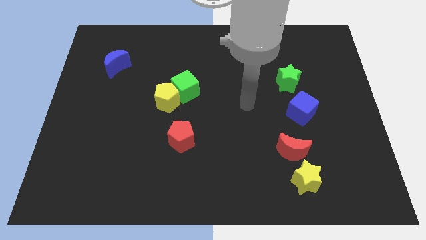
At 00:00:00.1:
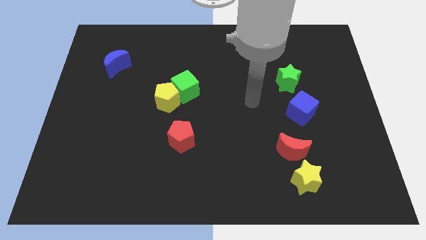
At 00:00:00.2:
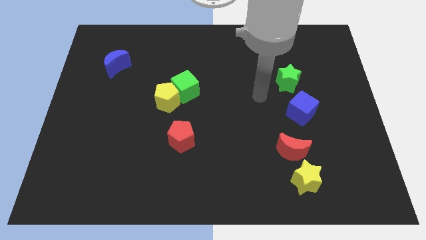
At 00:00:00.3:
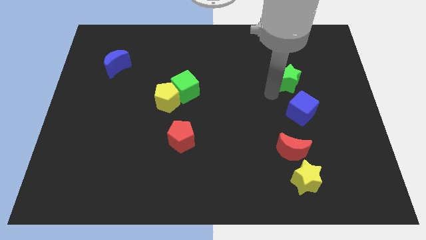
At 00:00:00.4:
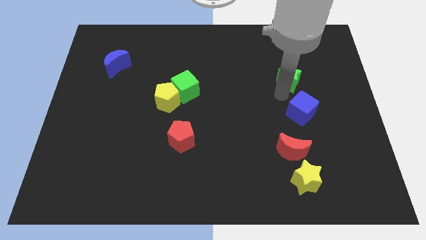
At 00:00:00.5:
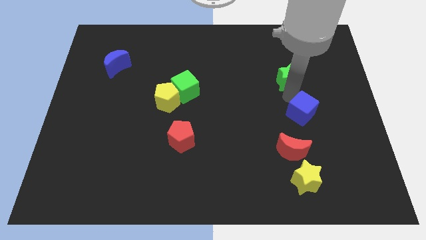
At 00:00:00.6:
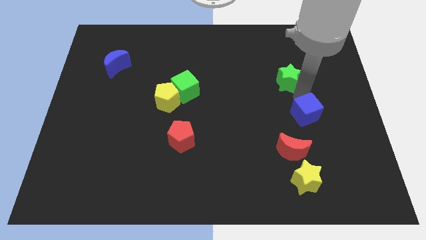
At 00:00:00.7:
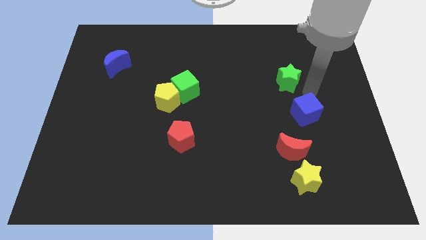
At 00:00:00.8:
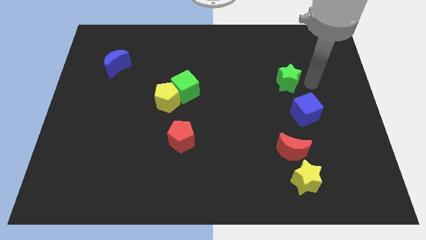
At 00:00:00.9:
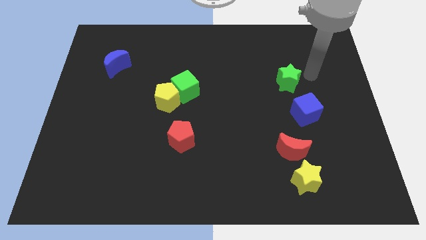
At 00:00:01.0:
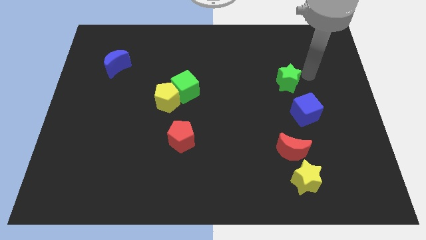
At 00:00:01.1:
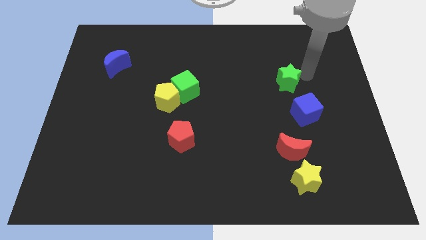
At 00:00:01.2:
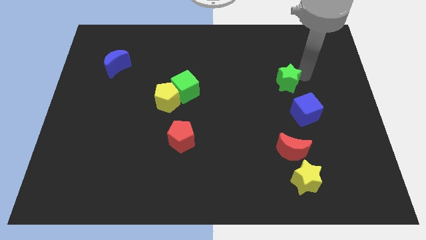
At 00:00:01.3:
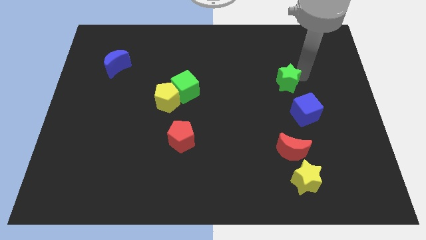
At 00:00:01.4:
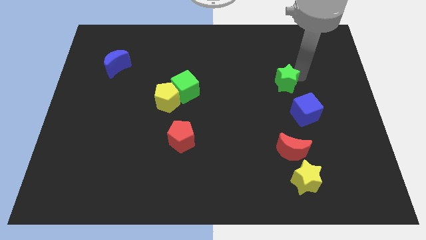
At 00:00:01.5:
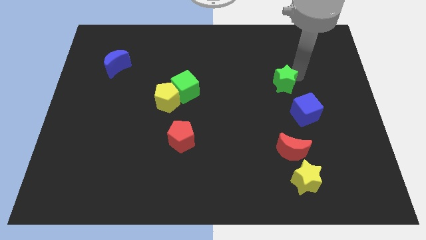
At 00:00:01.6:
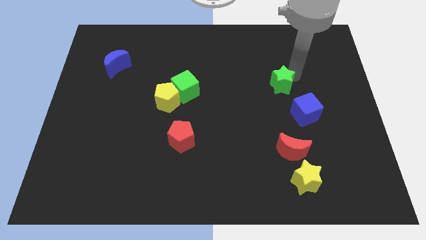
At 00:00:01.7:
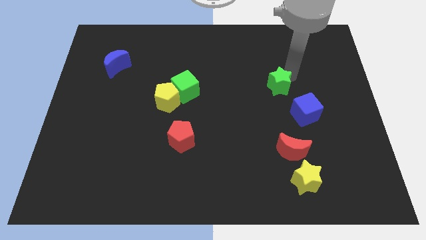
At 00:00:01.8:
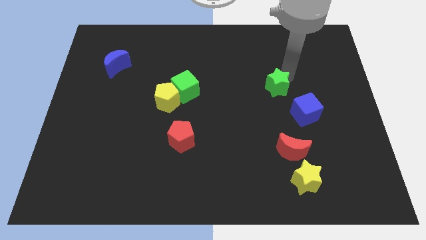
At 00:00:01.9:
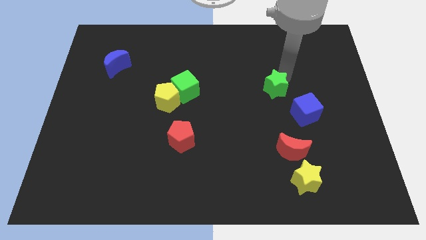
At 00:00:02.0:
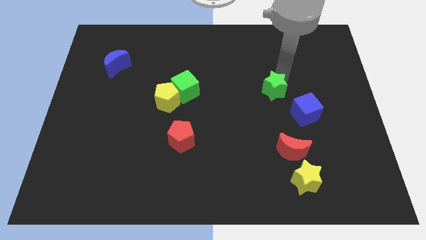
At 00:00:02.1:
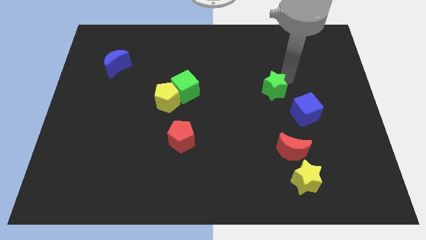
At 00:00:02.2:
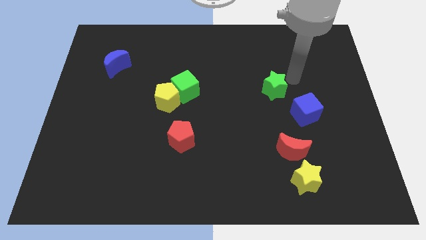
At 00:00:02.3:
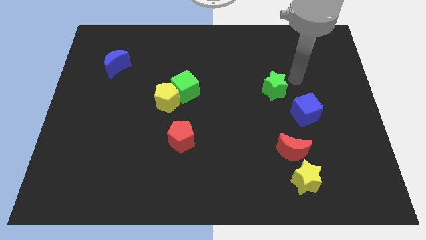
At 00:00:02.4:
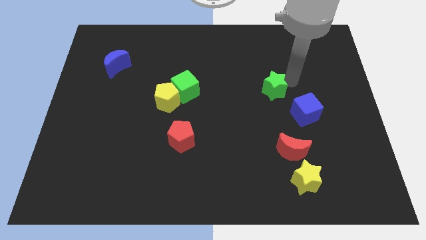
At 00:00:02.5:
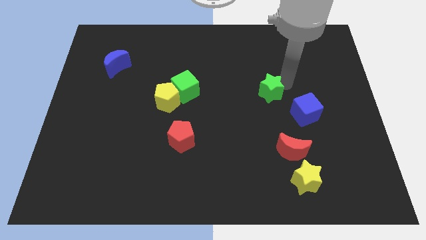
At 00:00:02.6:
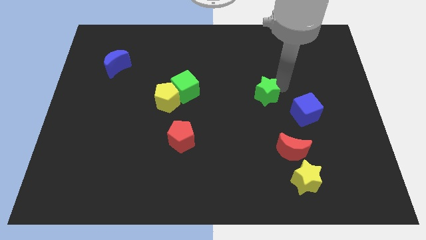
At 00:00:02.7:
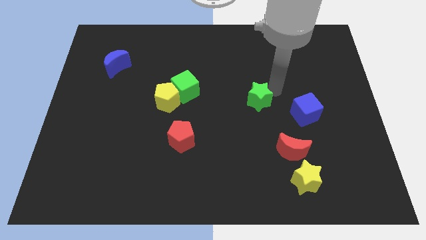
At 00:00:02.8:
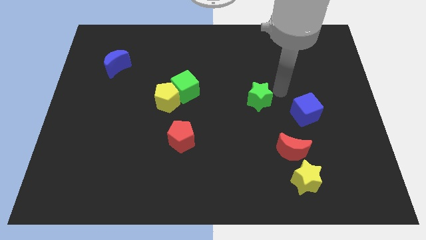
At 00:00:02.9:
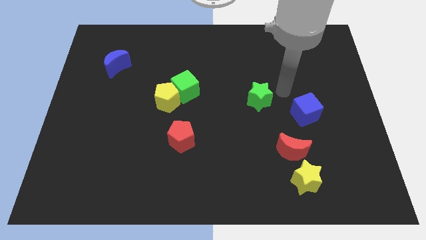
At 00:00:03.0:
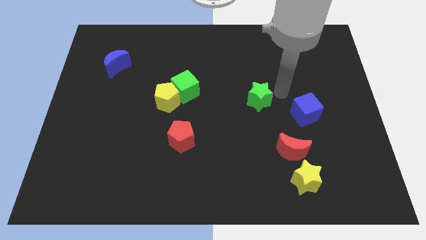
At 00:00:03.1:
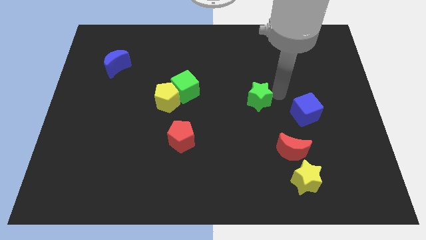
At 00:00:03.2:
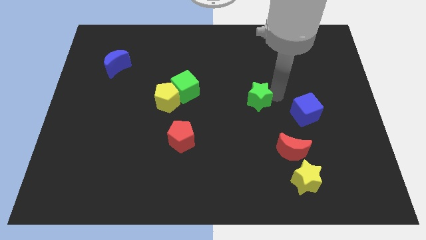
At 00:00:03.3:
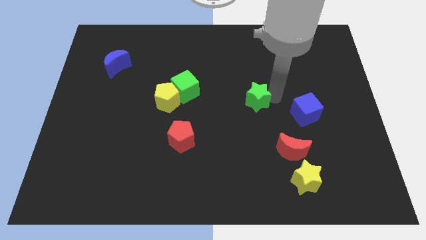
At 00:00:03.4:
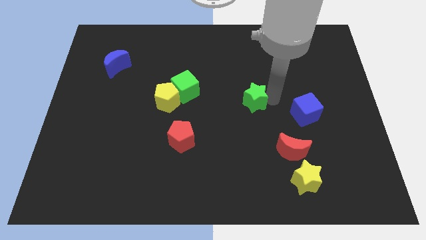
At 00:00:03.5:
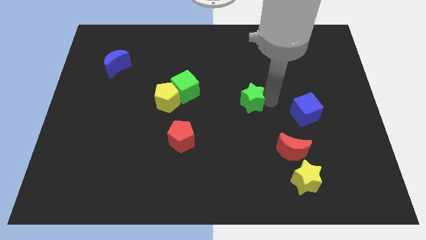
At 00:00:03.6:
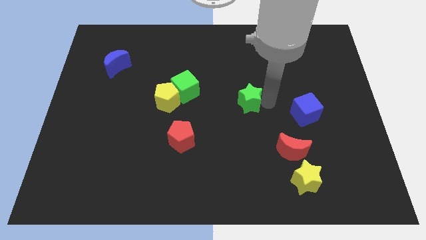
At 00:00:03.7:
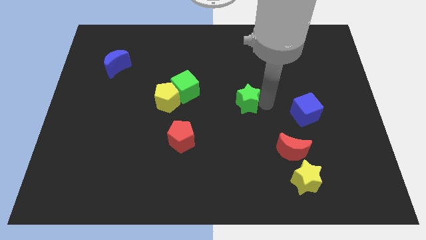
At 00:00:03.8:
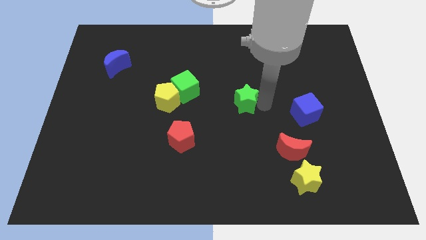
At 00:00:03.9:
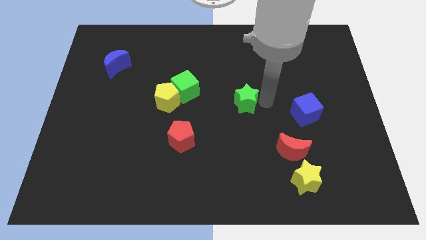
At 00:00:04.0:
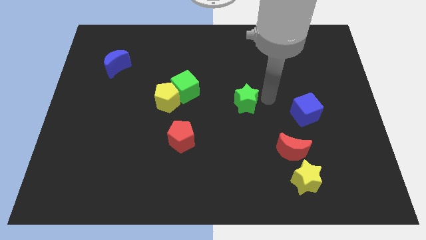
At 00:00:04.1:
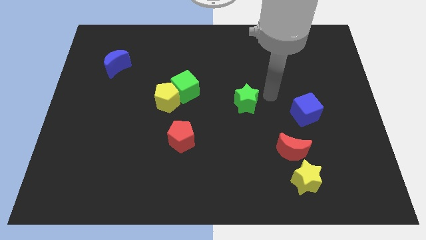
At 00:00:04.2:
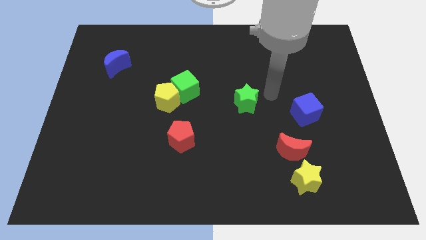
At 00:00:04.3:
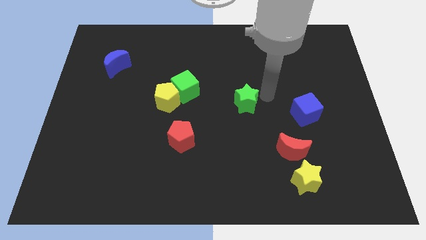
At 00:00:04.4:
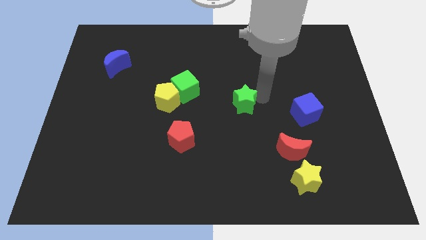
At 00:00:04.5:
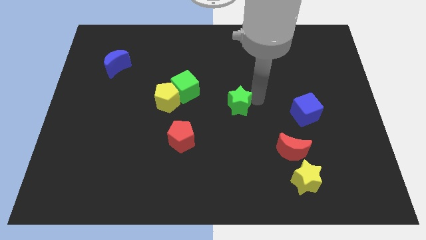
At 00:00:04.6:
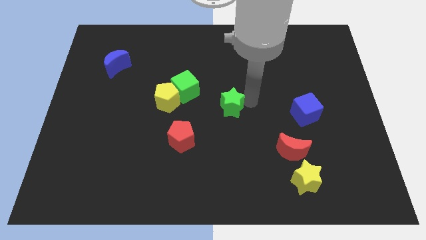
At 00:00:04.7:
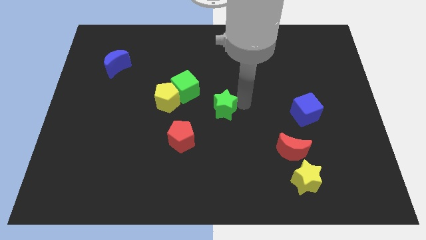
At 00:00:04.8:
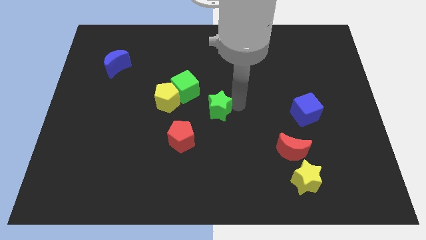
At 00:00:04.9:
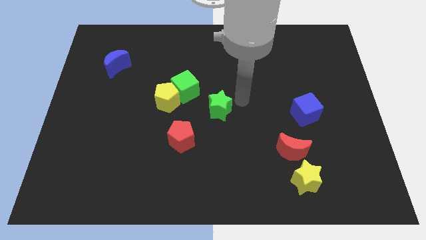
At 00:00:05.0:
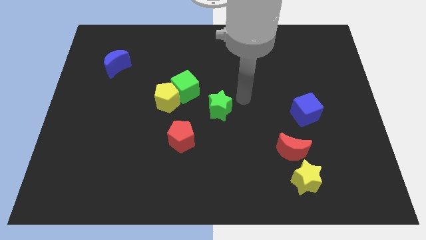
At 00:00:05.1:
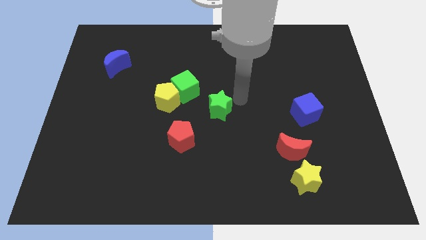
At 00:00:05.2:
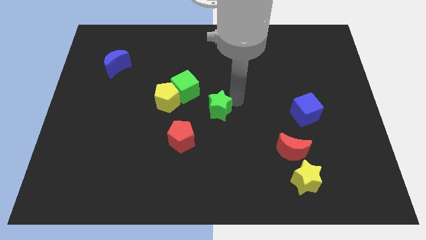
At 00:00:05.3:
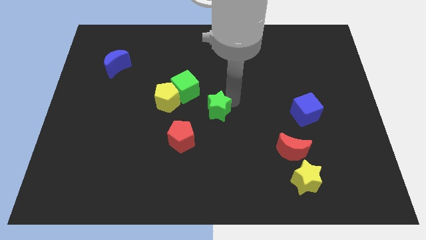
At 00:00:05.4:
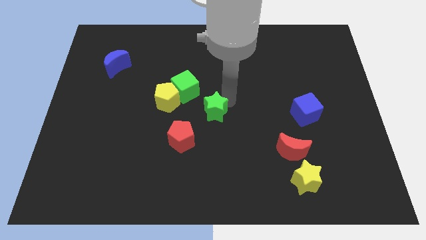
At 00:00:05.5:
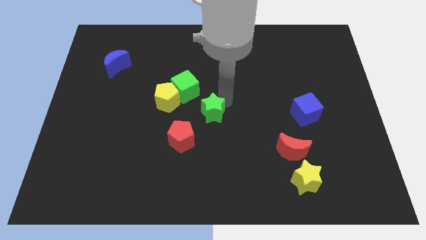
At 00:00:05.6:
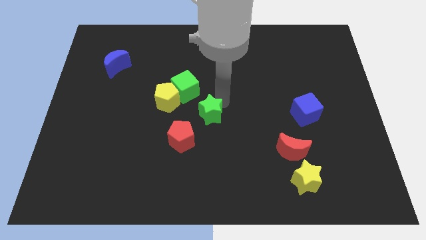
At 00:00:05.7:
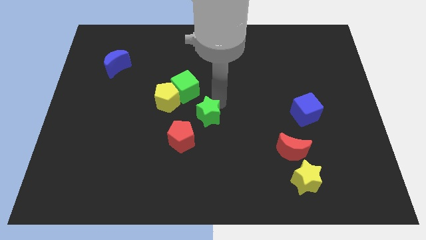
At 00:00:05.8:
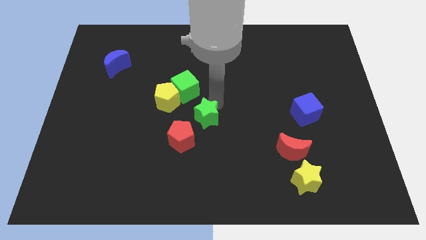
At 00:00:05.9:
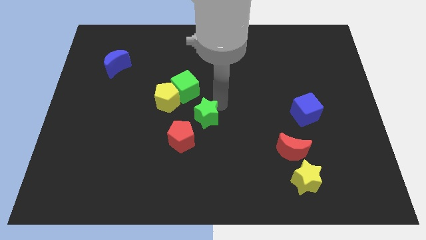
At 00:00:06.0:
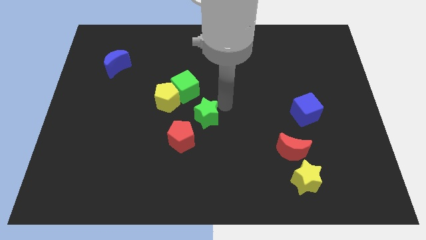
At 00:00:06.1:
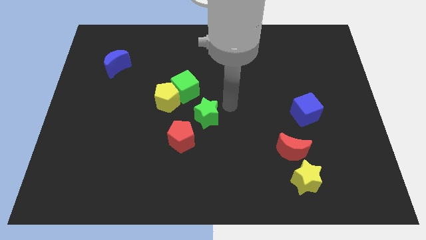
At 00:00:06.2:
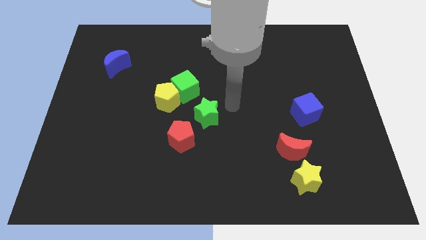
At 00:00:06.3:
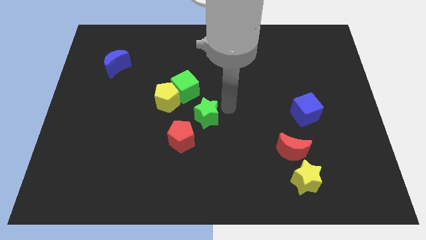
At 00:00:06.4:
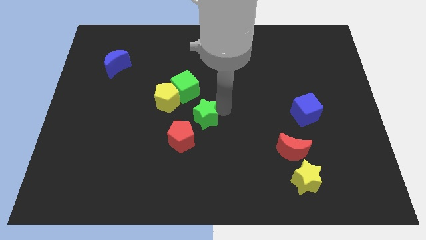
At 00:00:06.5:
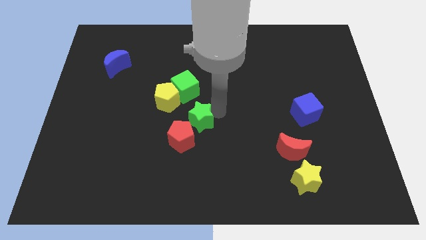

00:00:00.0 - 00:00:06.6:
slide the green star above the red pentagon

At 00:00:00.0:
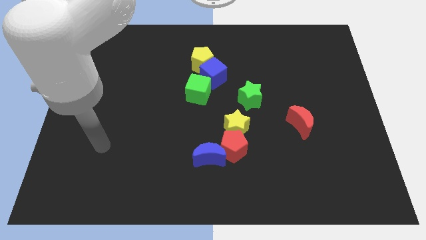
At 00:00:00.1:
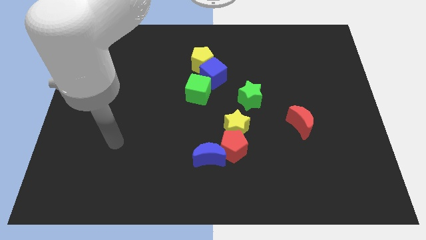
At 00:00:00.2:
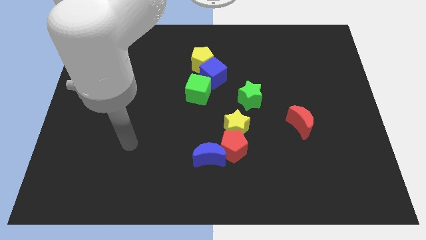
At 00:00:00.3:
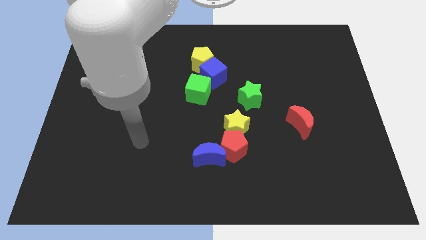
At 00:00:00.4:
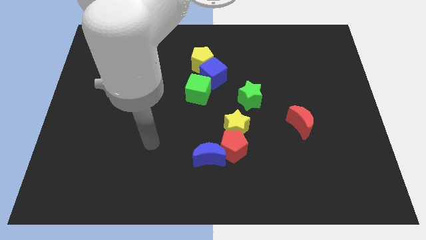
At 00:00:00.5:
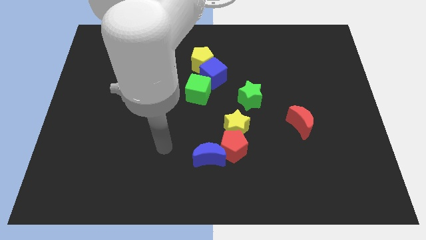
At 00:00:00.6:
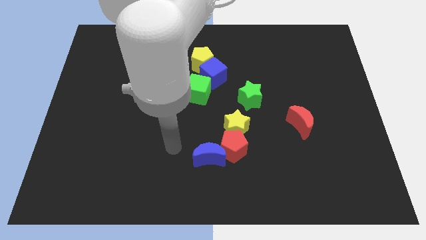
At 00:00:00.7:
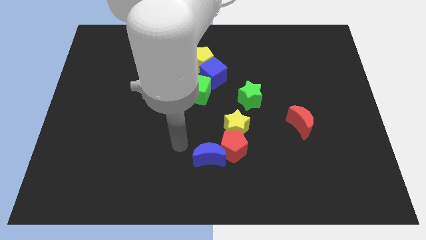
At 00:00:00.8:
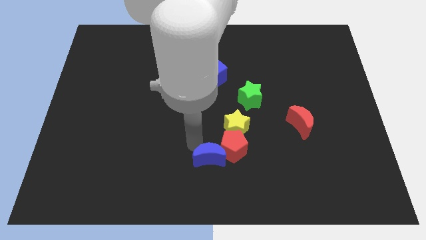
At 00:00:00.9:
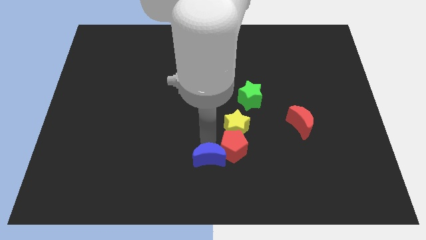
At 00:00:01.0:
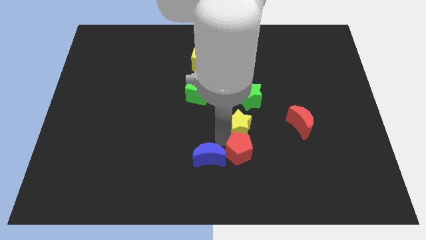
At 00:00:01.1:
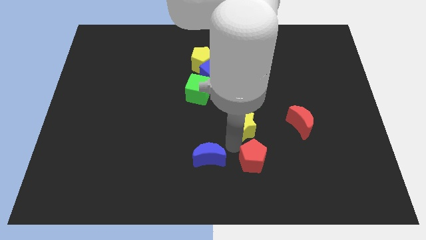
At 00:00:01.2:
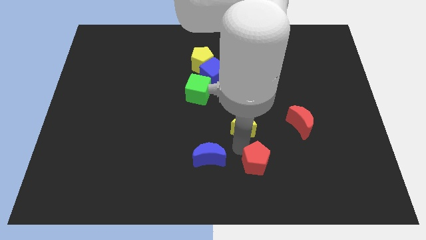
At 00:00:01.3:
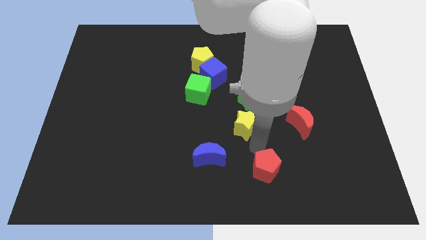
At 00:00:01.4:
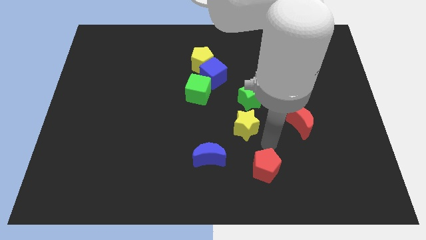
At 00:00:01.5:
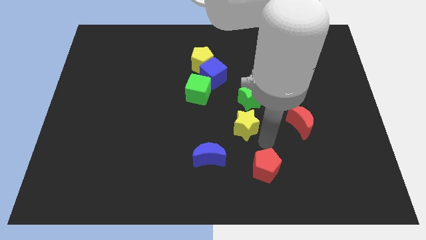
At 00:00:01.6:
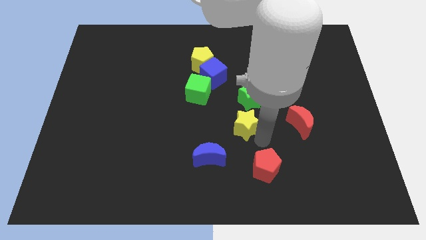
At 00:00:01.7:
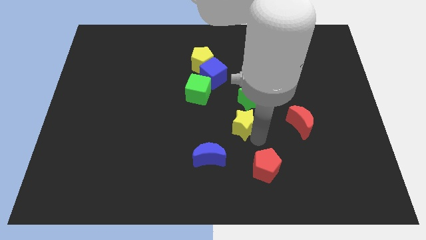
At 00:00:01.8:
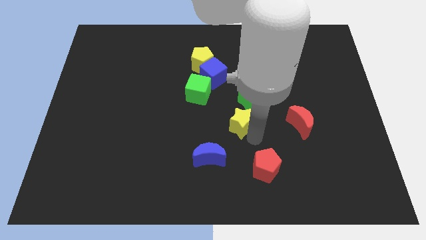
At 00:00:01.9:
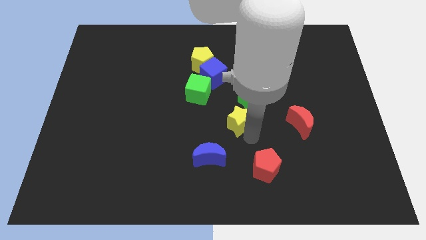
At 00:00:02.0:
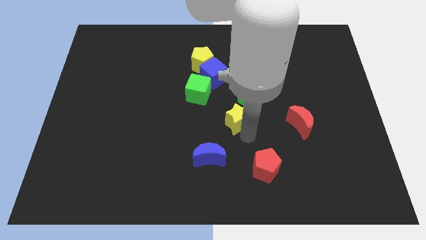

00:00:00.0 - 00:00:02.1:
move the yellow star to the bottom right of the green cube
